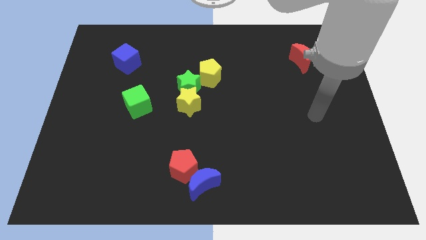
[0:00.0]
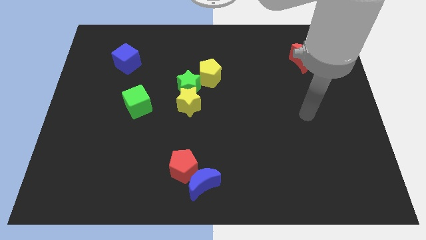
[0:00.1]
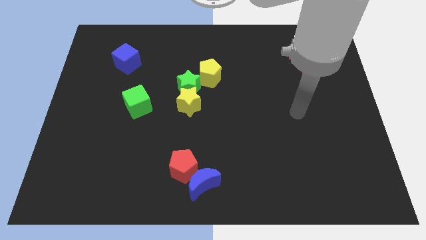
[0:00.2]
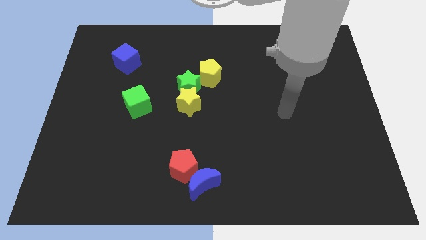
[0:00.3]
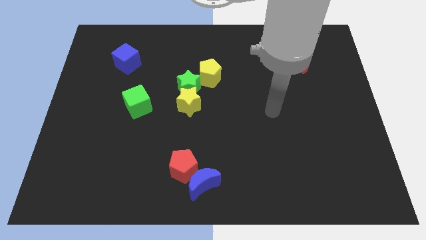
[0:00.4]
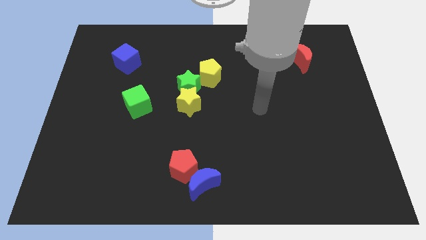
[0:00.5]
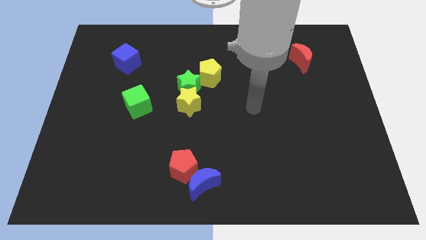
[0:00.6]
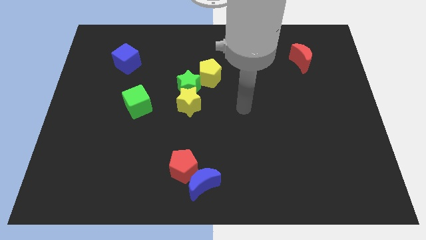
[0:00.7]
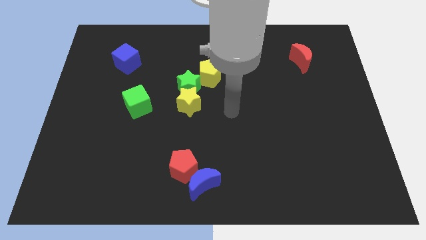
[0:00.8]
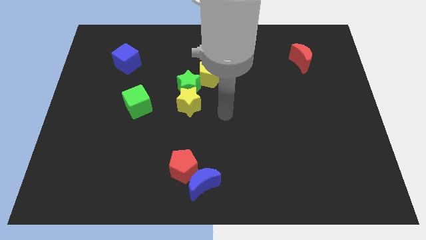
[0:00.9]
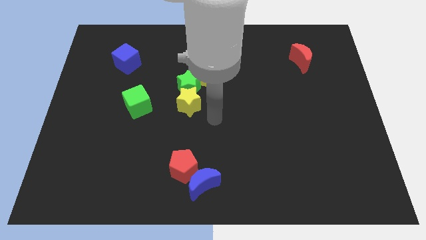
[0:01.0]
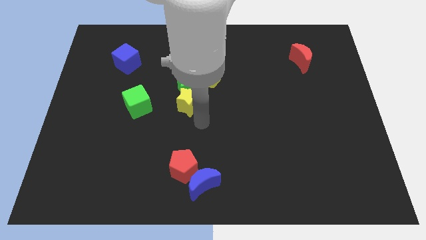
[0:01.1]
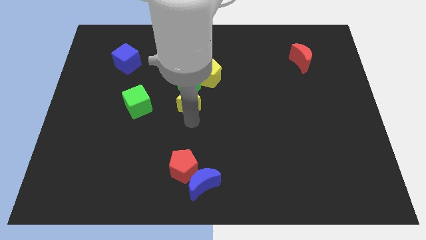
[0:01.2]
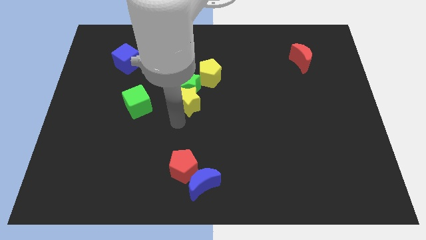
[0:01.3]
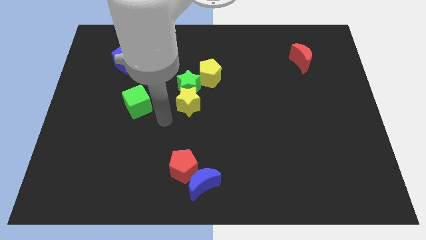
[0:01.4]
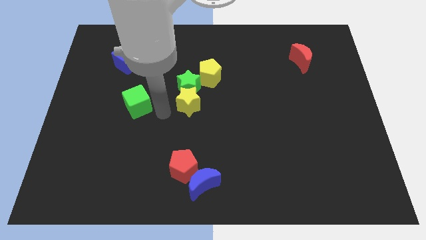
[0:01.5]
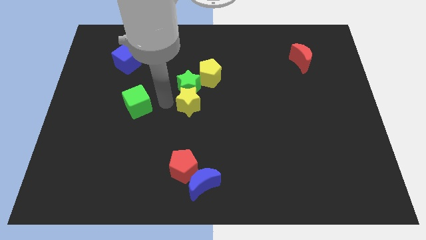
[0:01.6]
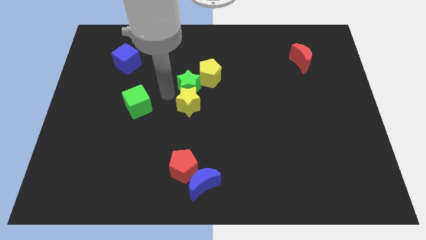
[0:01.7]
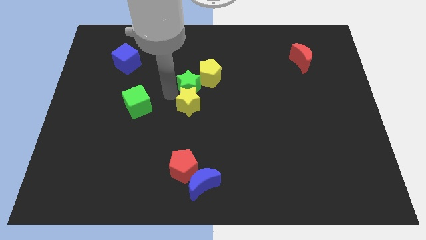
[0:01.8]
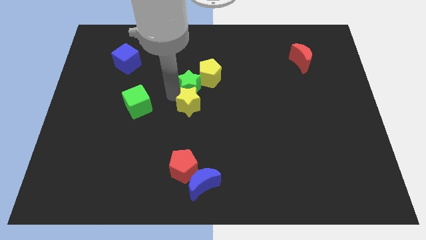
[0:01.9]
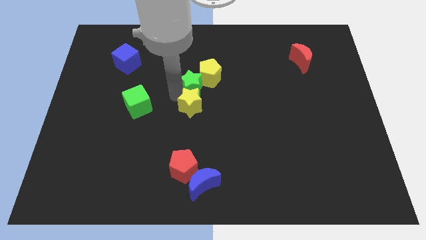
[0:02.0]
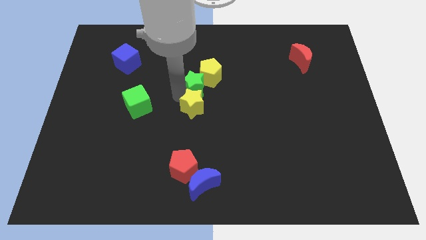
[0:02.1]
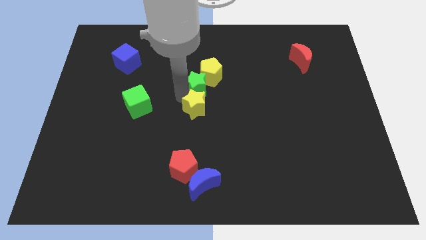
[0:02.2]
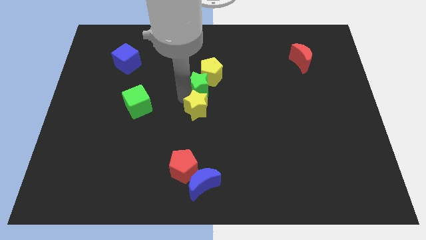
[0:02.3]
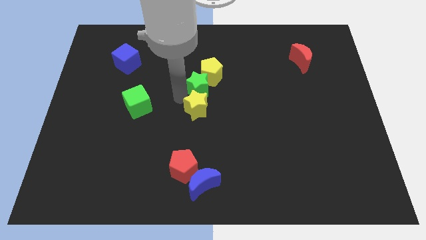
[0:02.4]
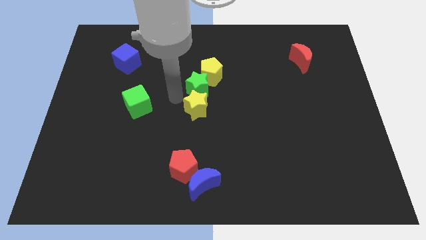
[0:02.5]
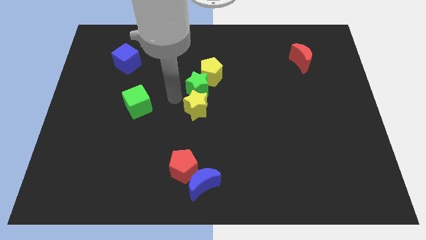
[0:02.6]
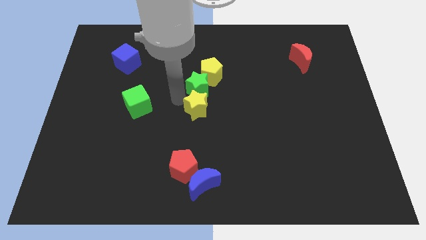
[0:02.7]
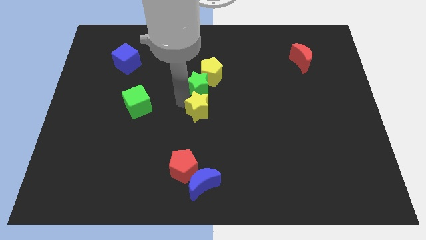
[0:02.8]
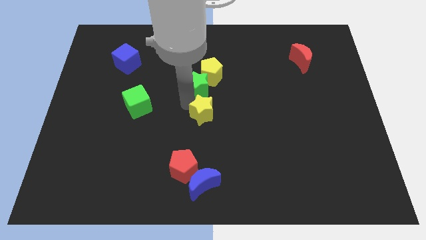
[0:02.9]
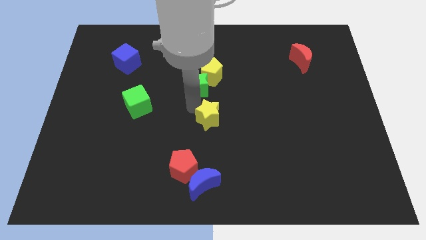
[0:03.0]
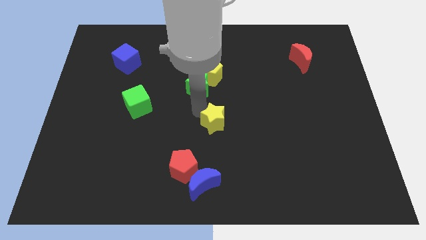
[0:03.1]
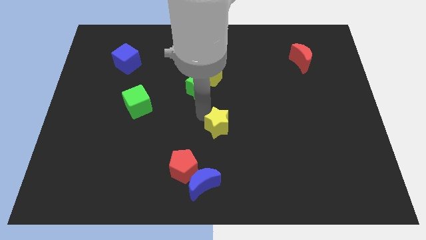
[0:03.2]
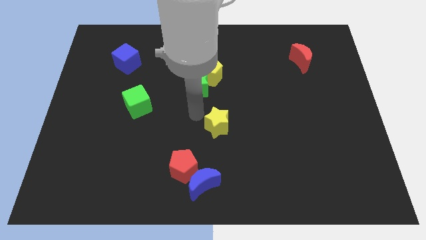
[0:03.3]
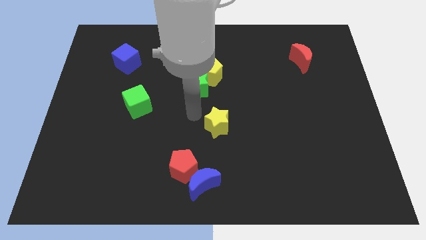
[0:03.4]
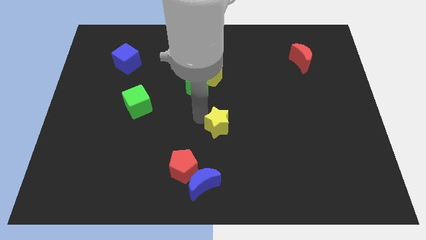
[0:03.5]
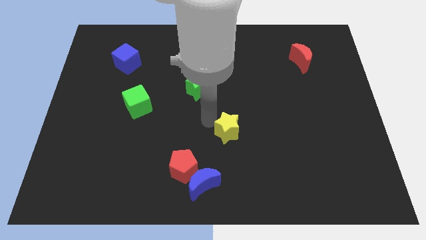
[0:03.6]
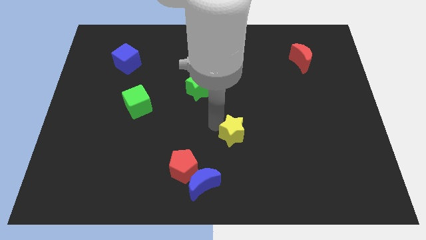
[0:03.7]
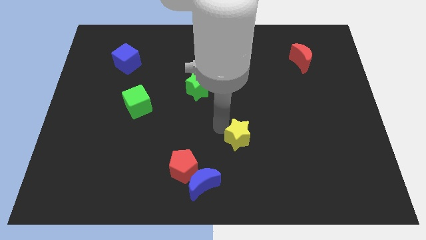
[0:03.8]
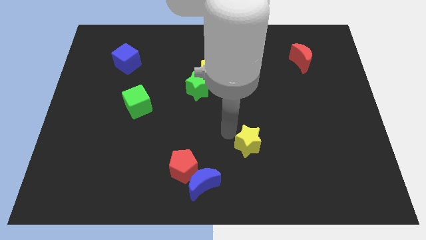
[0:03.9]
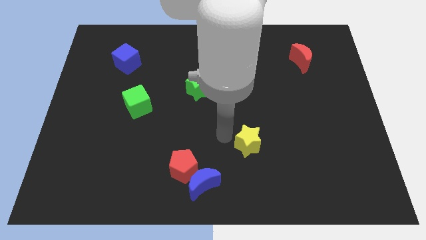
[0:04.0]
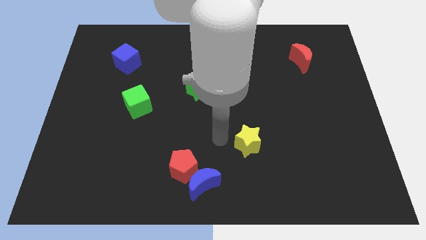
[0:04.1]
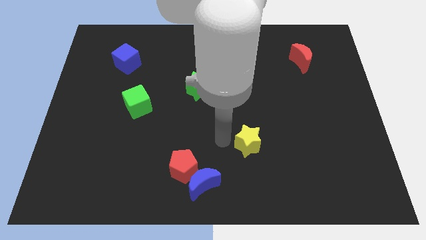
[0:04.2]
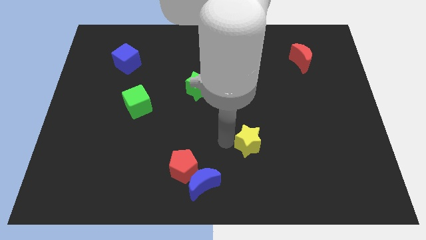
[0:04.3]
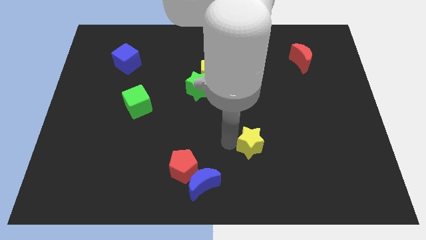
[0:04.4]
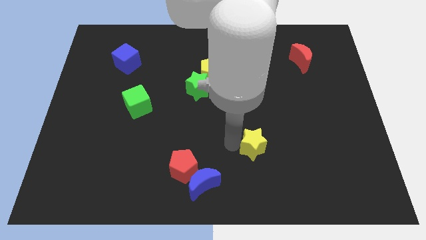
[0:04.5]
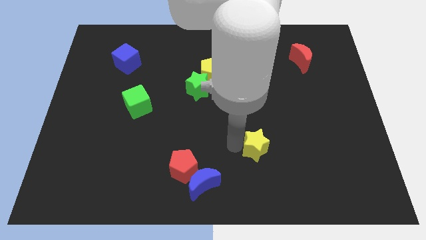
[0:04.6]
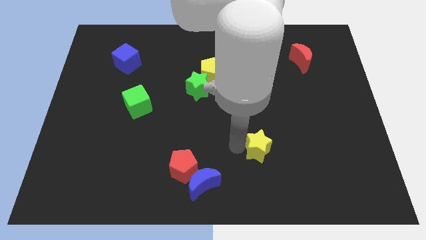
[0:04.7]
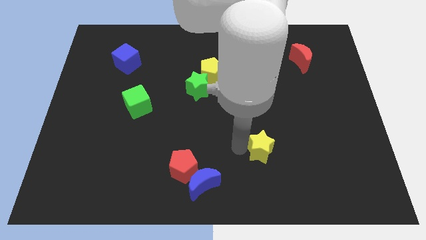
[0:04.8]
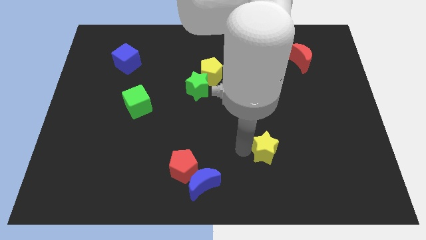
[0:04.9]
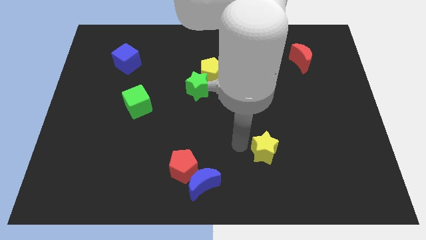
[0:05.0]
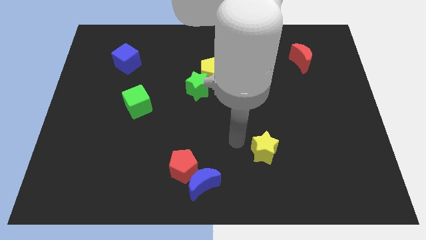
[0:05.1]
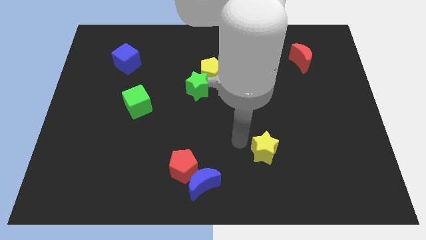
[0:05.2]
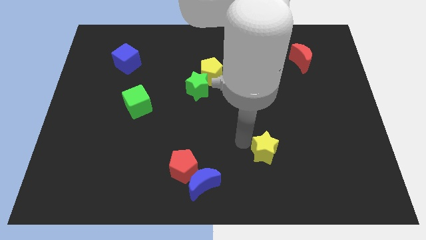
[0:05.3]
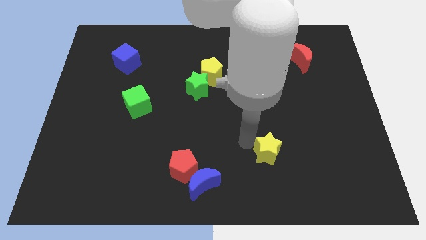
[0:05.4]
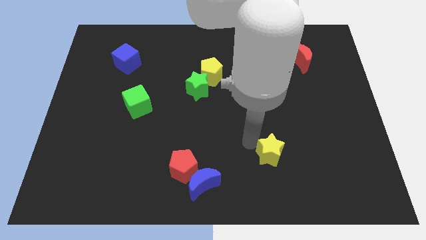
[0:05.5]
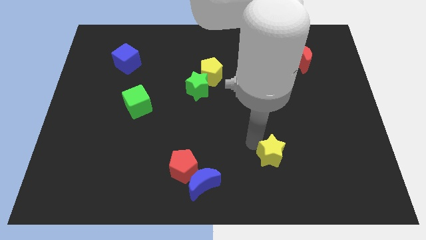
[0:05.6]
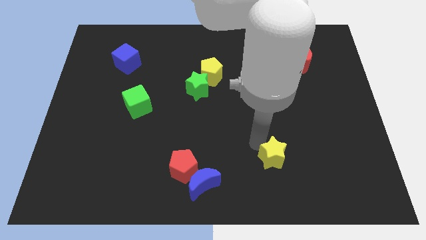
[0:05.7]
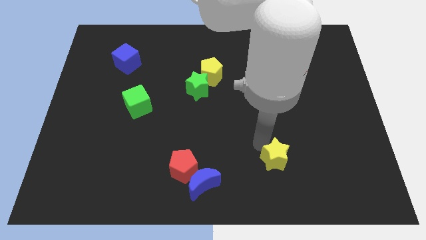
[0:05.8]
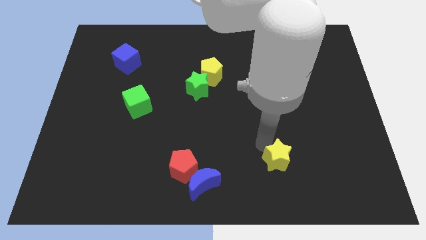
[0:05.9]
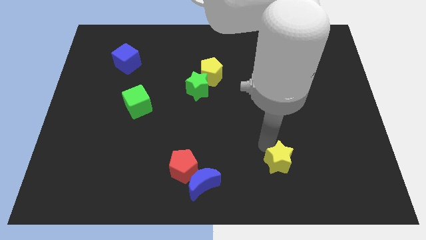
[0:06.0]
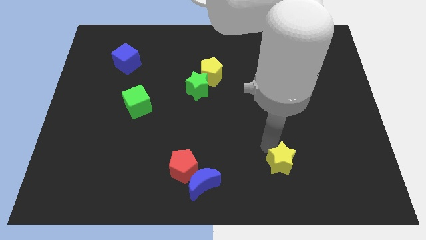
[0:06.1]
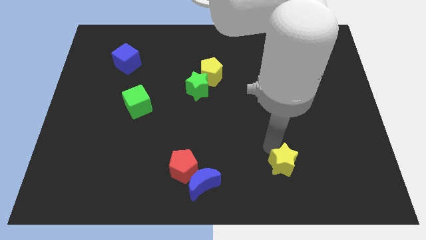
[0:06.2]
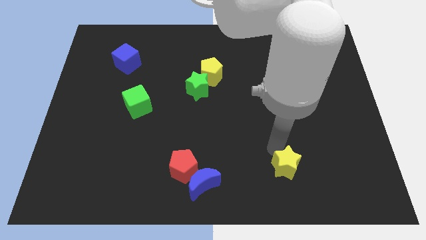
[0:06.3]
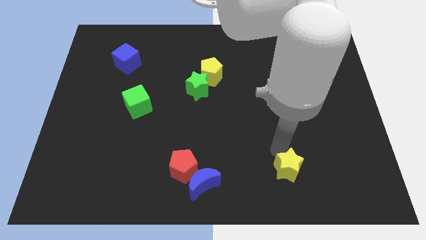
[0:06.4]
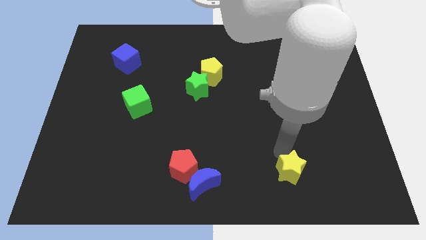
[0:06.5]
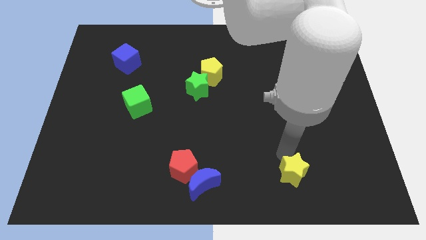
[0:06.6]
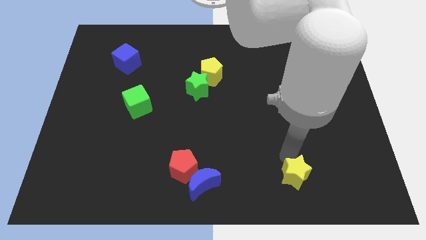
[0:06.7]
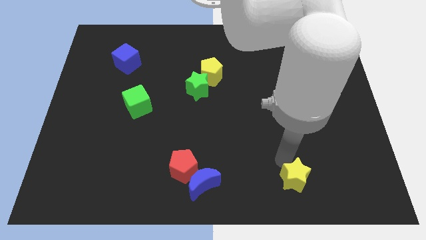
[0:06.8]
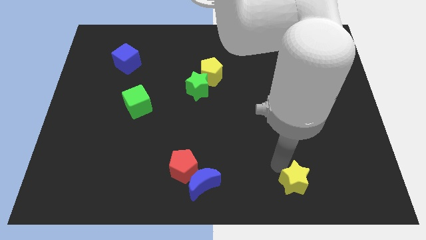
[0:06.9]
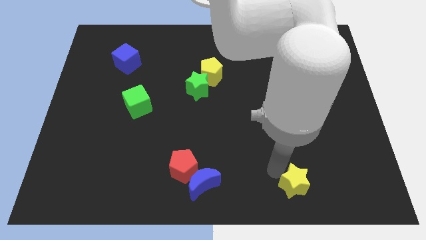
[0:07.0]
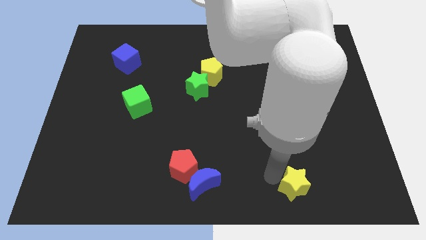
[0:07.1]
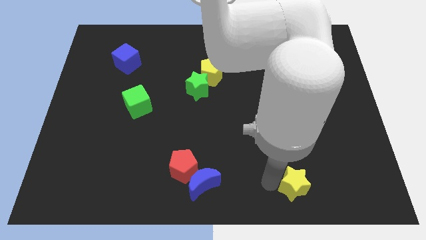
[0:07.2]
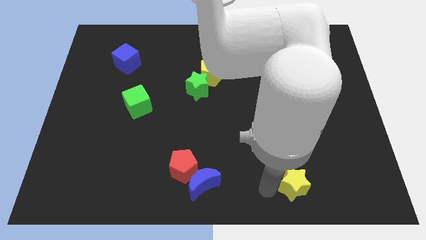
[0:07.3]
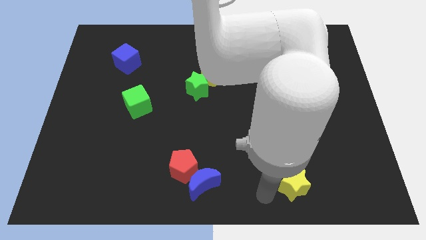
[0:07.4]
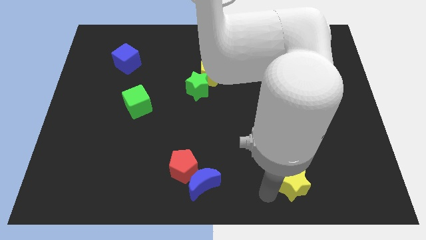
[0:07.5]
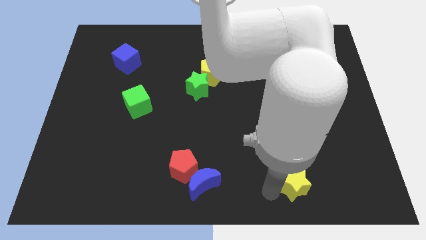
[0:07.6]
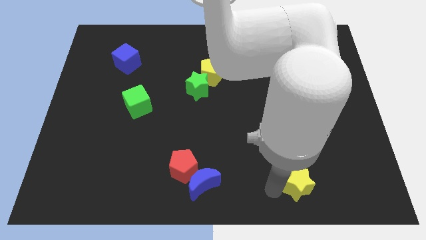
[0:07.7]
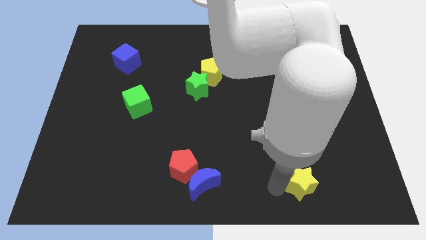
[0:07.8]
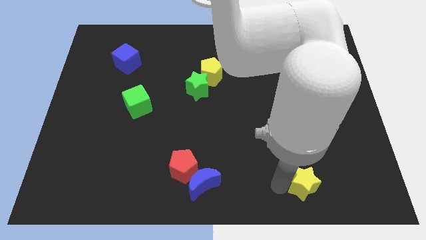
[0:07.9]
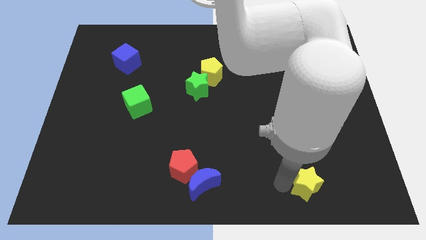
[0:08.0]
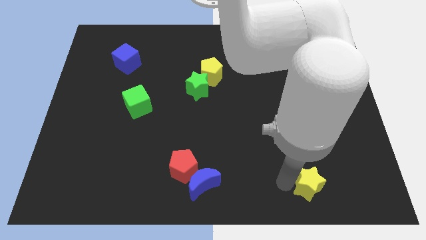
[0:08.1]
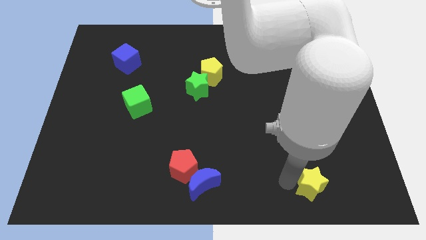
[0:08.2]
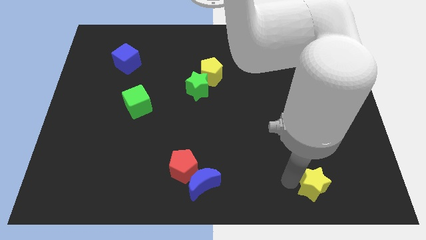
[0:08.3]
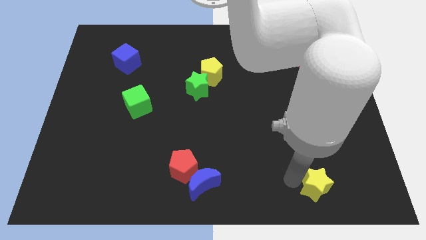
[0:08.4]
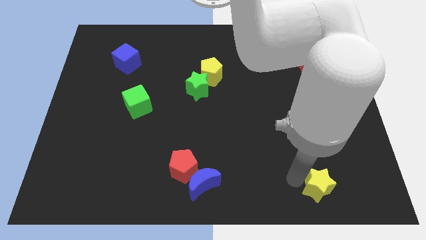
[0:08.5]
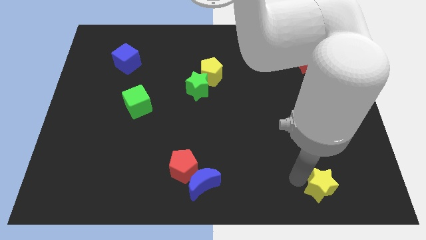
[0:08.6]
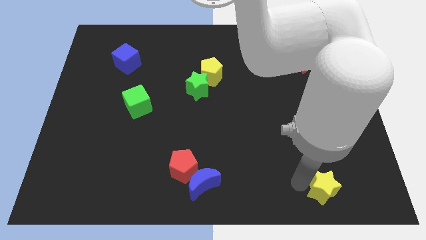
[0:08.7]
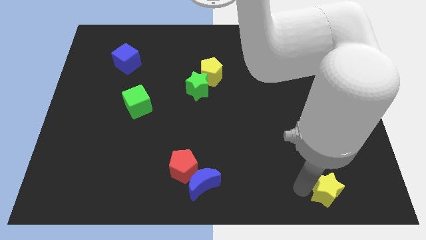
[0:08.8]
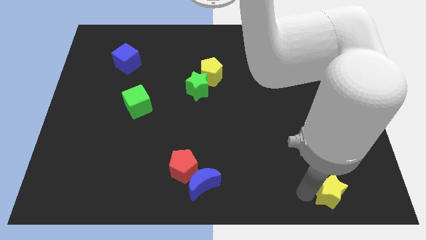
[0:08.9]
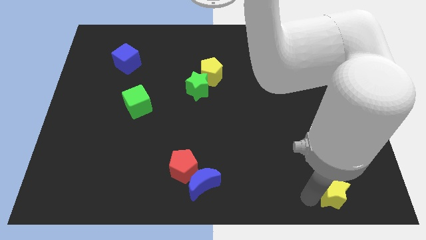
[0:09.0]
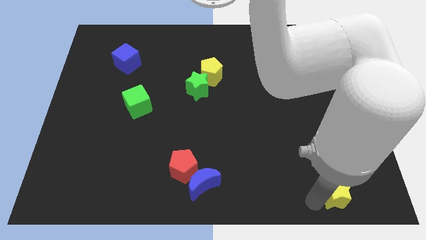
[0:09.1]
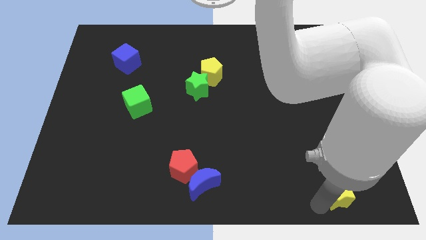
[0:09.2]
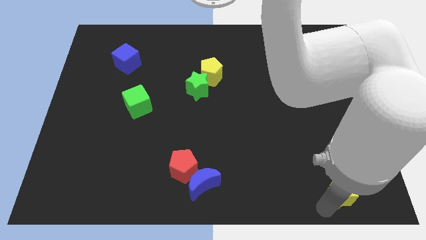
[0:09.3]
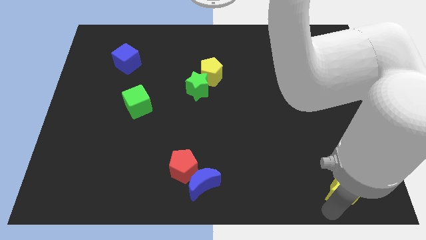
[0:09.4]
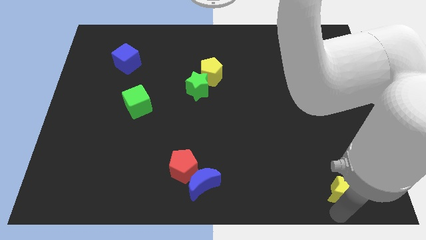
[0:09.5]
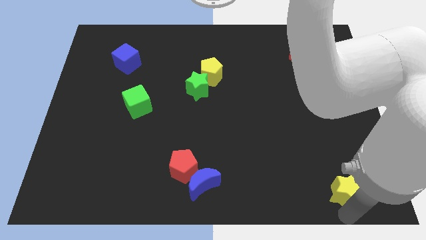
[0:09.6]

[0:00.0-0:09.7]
slide the yellow star to the bottom right
